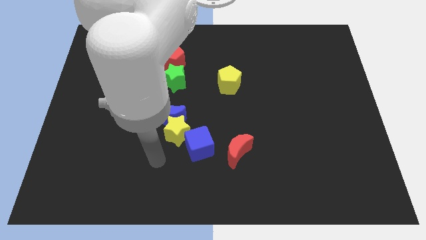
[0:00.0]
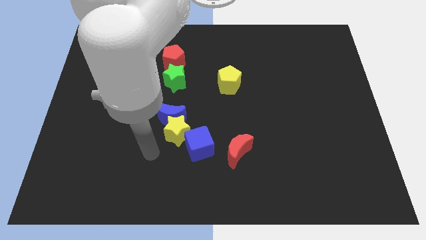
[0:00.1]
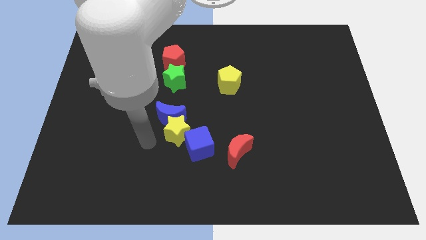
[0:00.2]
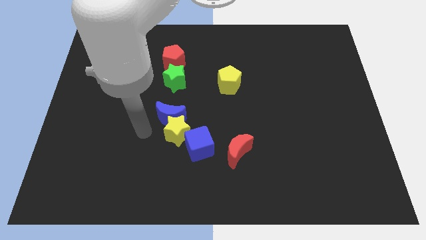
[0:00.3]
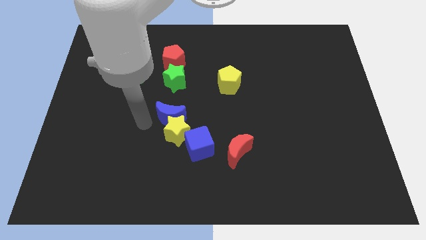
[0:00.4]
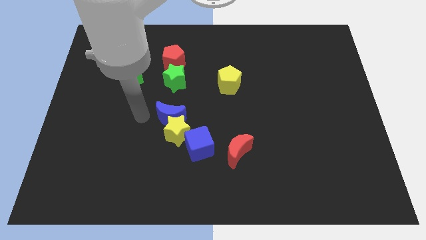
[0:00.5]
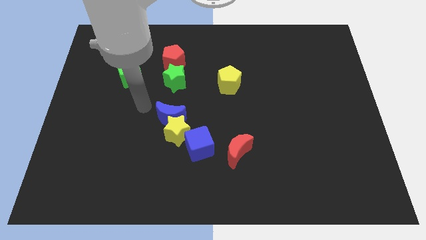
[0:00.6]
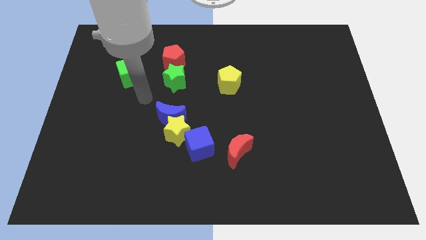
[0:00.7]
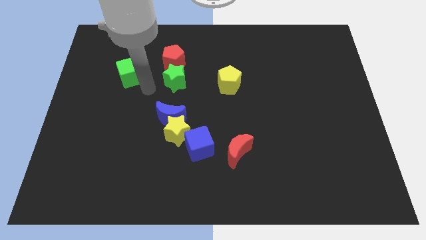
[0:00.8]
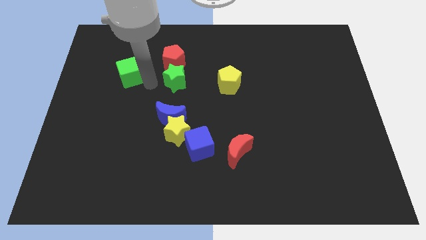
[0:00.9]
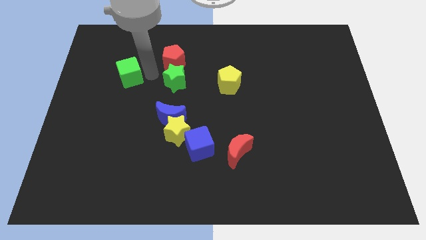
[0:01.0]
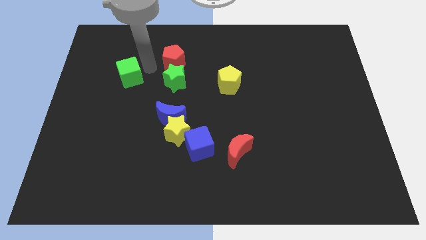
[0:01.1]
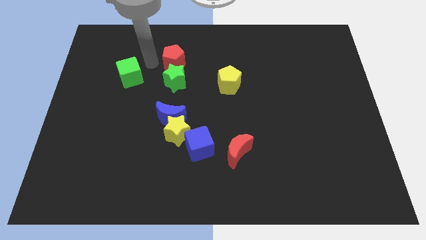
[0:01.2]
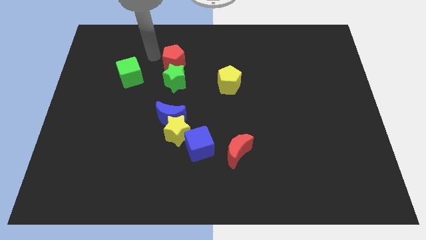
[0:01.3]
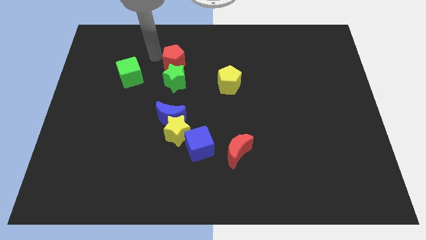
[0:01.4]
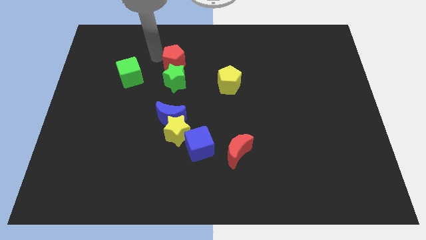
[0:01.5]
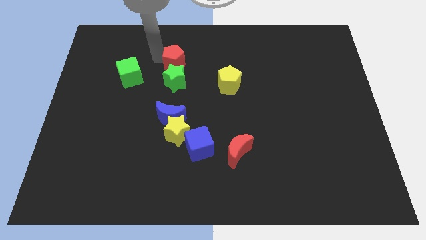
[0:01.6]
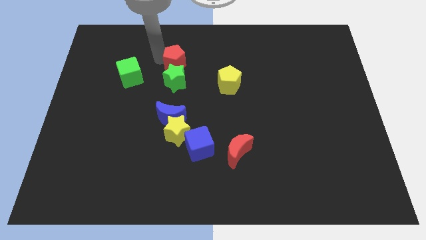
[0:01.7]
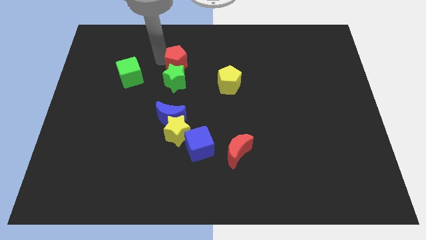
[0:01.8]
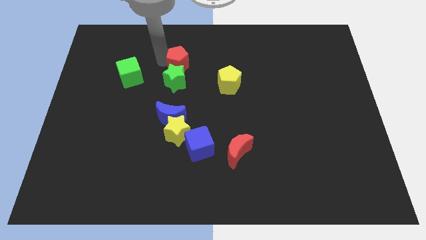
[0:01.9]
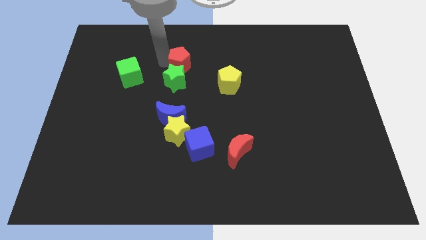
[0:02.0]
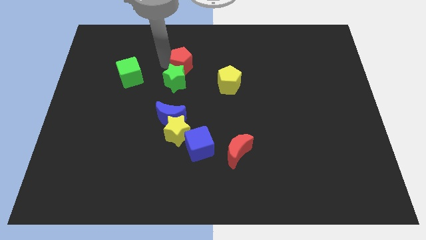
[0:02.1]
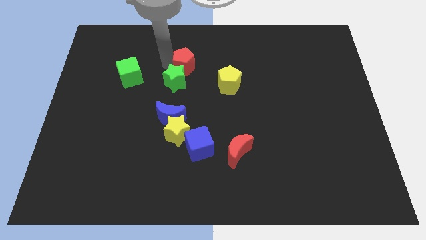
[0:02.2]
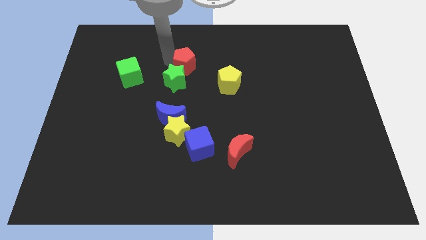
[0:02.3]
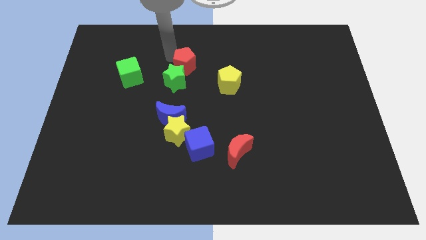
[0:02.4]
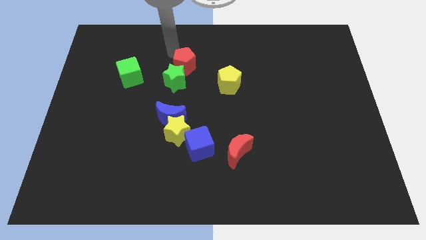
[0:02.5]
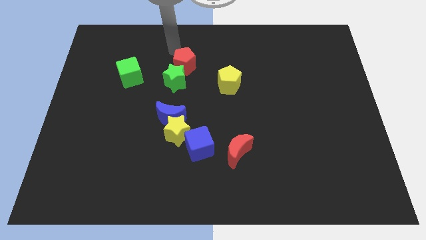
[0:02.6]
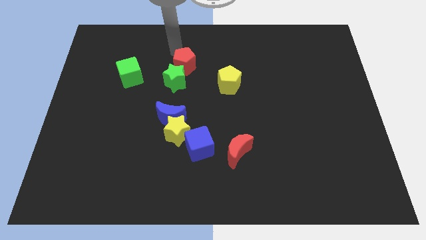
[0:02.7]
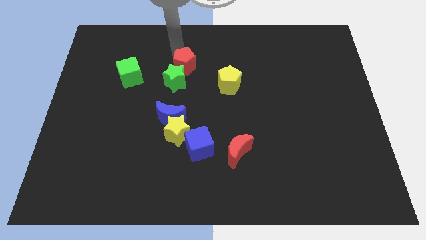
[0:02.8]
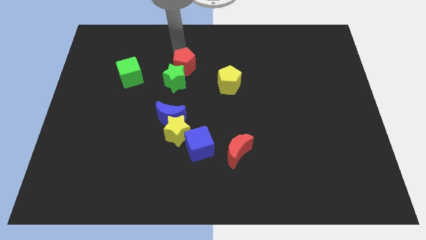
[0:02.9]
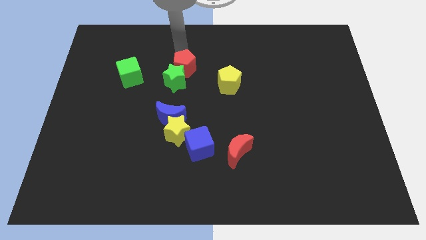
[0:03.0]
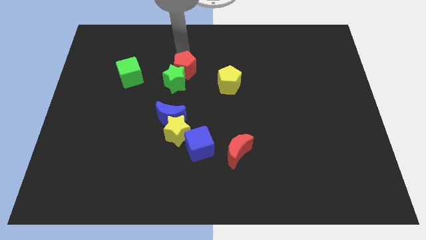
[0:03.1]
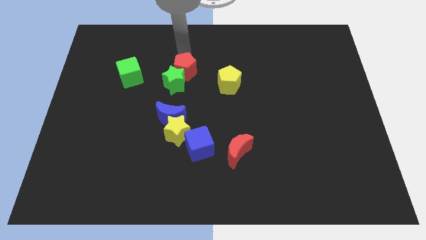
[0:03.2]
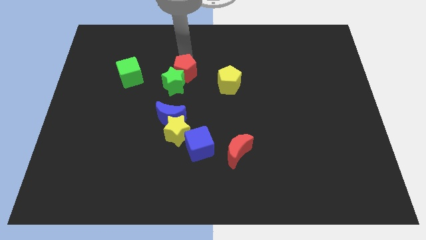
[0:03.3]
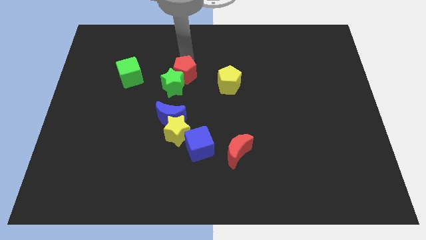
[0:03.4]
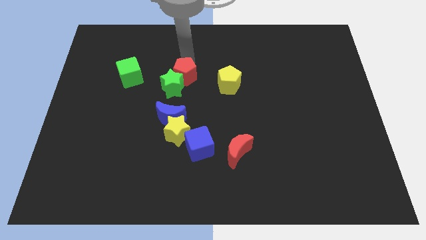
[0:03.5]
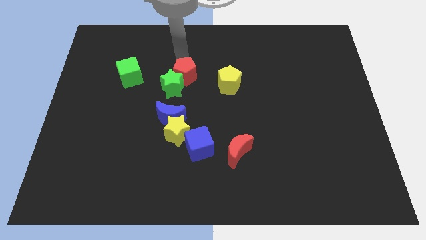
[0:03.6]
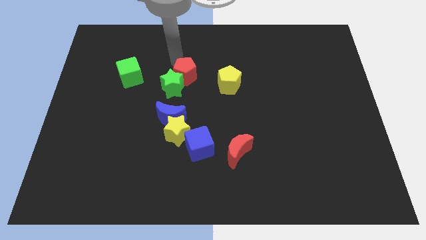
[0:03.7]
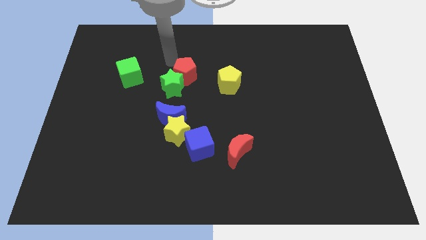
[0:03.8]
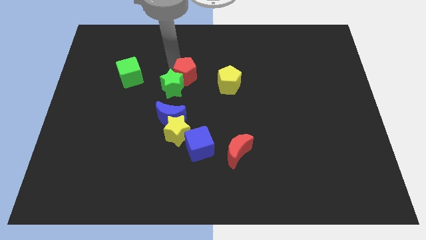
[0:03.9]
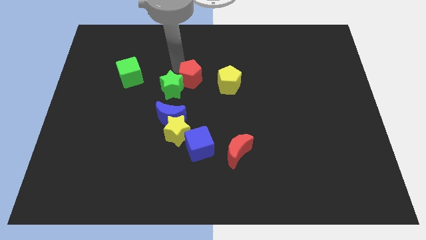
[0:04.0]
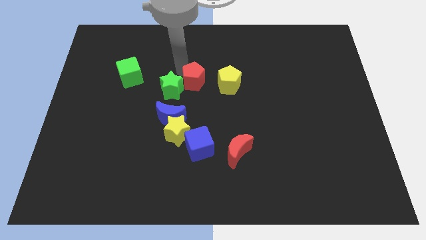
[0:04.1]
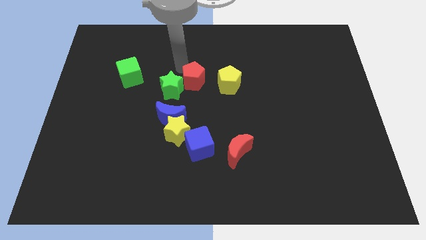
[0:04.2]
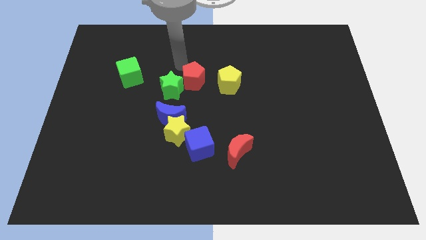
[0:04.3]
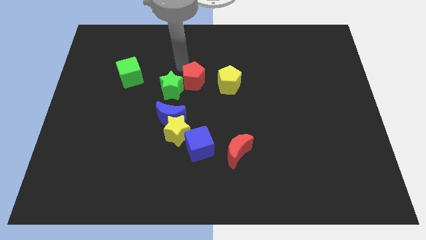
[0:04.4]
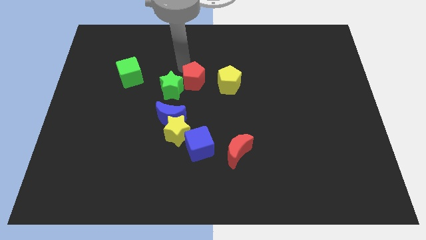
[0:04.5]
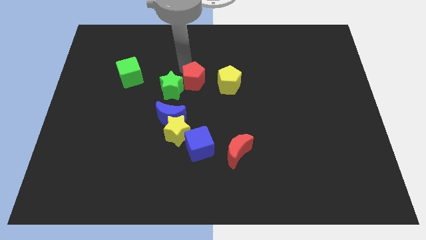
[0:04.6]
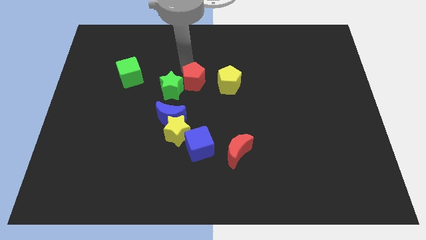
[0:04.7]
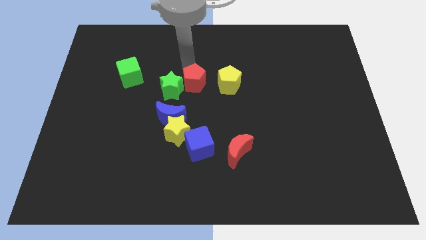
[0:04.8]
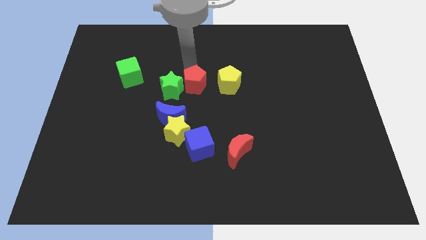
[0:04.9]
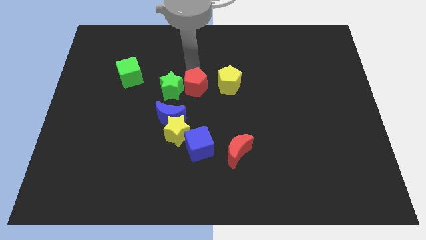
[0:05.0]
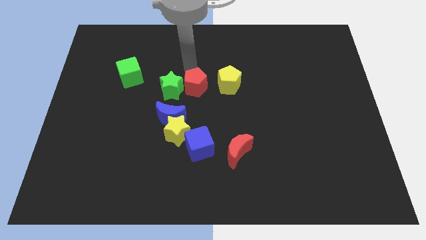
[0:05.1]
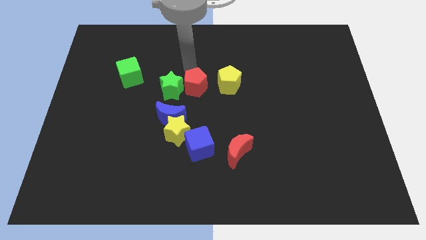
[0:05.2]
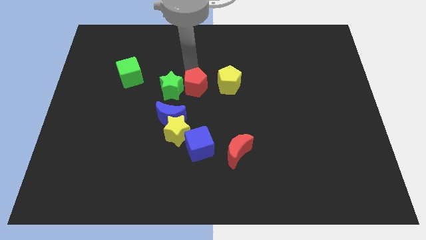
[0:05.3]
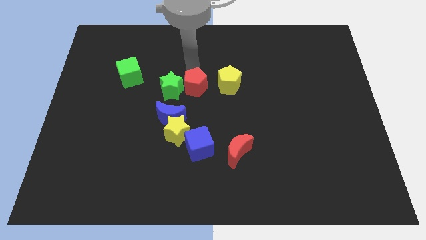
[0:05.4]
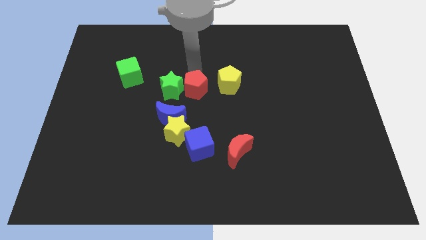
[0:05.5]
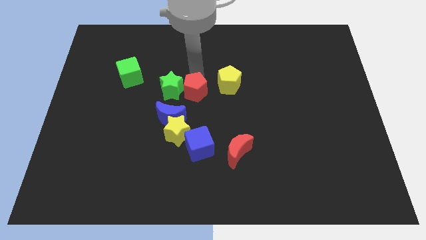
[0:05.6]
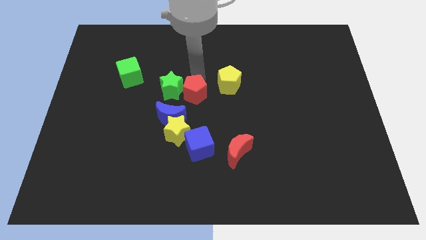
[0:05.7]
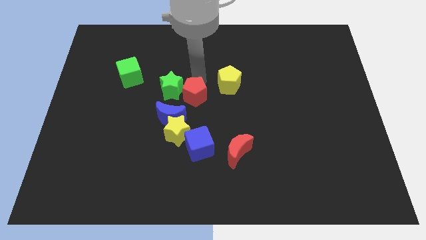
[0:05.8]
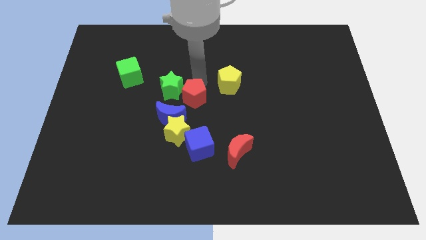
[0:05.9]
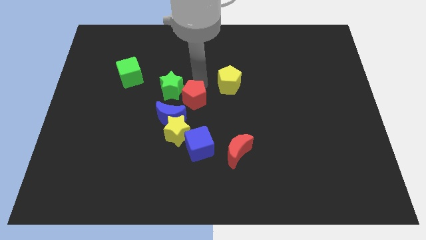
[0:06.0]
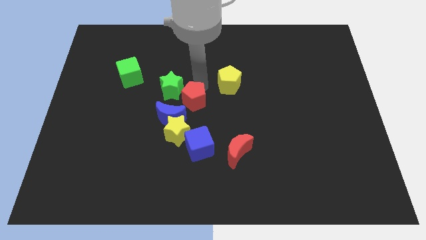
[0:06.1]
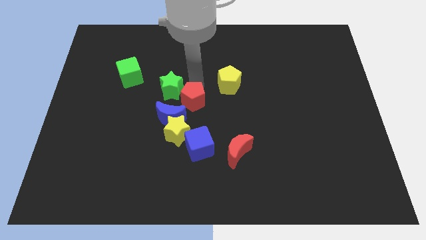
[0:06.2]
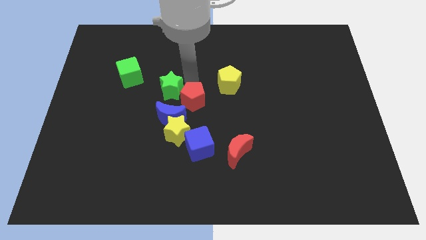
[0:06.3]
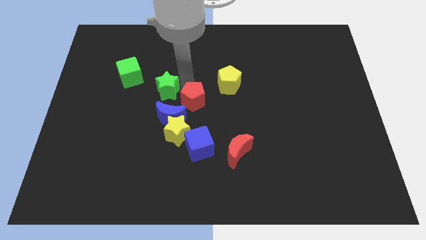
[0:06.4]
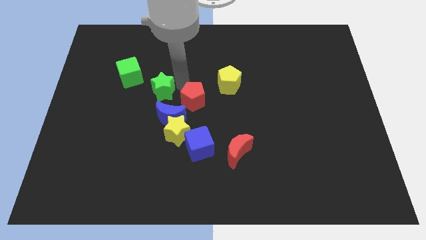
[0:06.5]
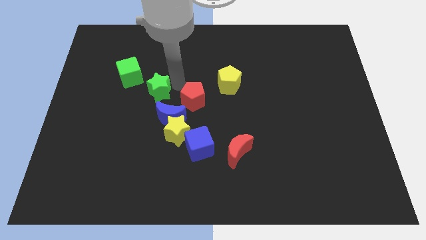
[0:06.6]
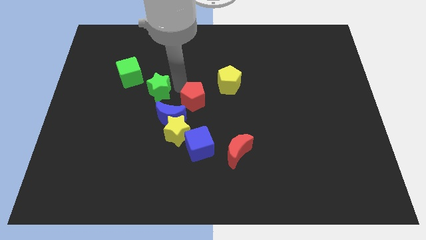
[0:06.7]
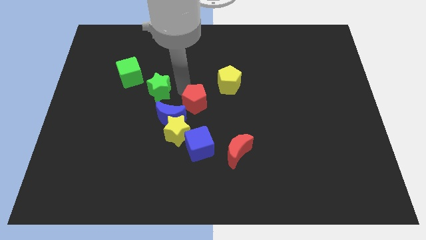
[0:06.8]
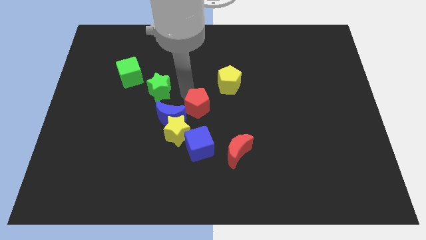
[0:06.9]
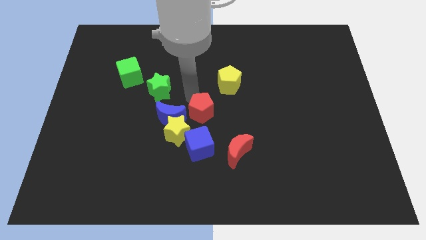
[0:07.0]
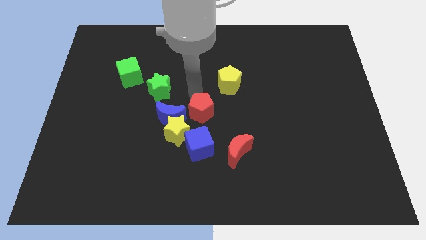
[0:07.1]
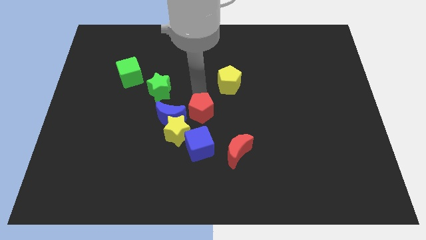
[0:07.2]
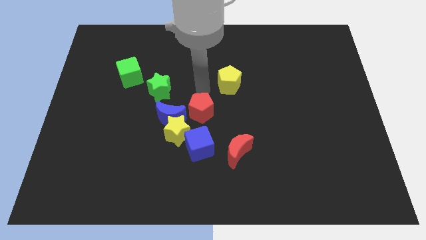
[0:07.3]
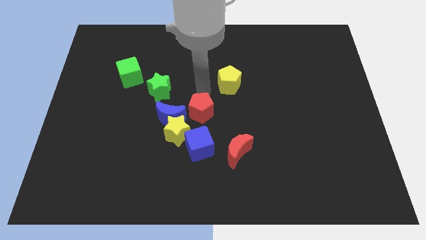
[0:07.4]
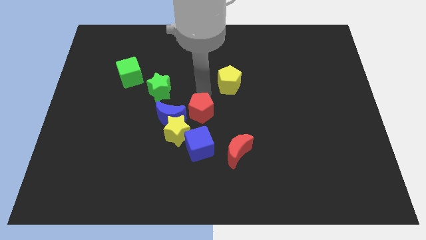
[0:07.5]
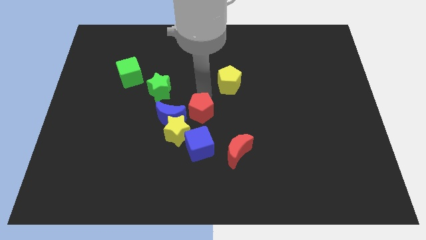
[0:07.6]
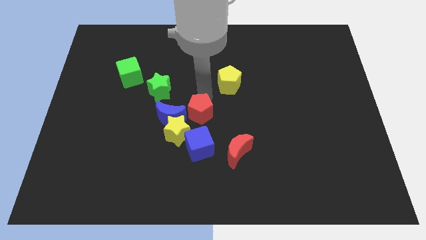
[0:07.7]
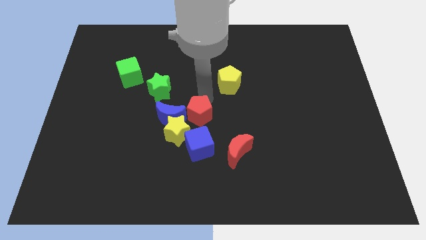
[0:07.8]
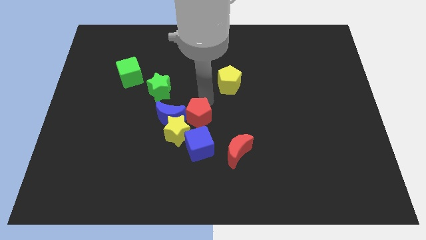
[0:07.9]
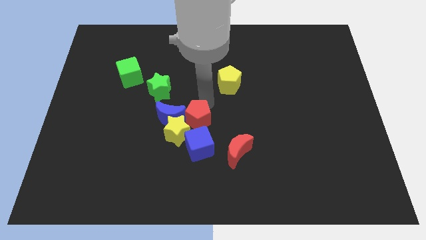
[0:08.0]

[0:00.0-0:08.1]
move the red pentagon next to the yellow star
